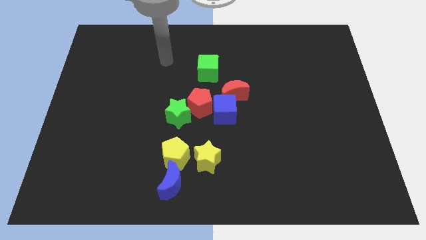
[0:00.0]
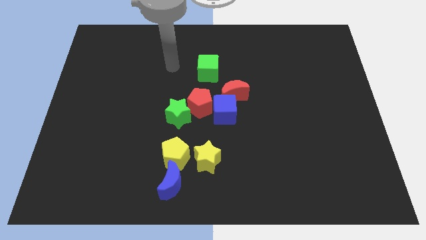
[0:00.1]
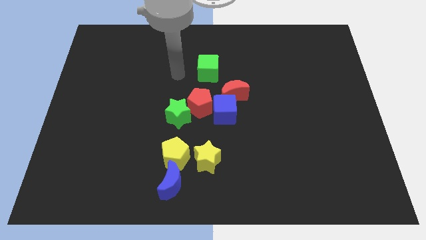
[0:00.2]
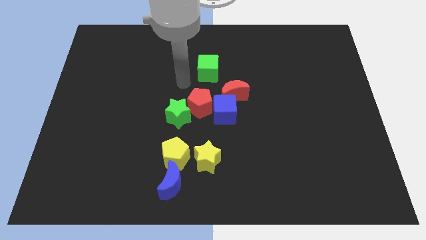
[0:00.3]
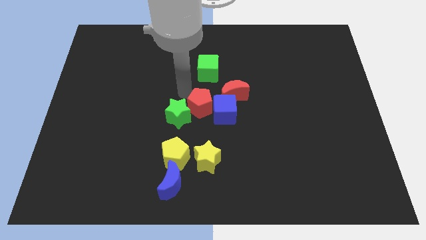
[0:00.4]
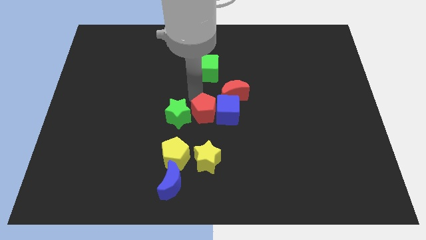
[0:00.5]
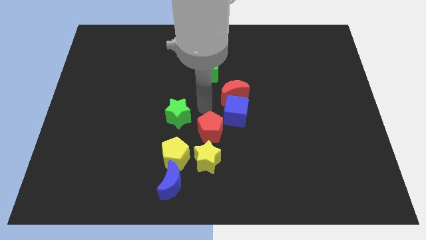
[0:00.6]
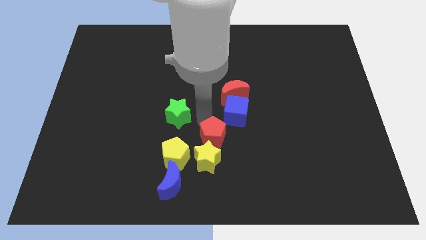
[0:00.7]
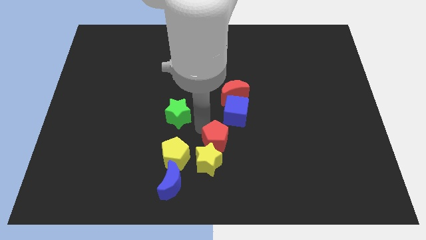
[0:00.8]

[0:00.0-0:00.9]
pull the green star apart from the red pentagon

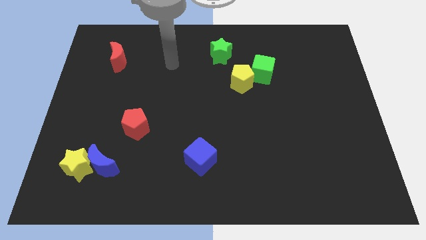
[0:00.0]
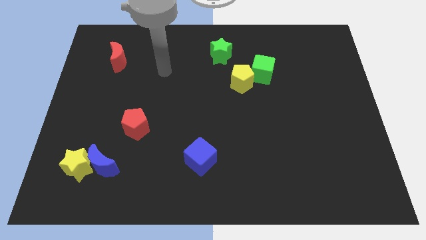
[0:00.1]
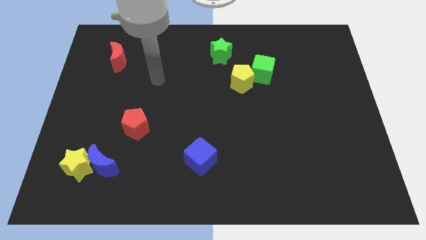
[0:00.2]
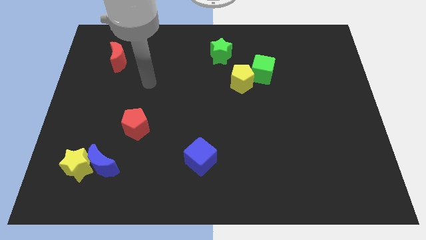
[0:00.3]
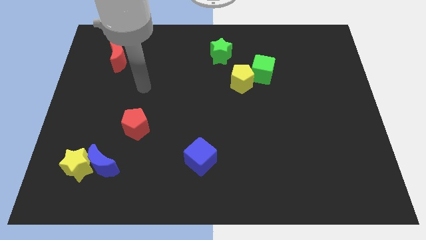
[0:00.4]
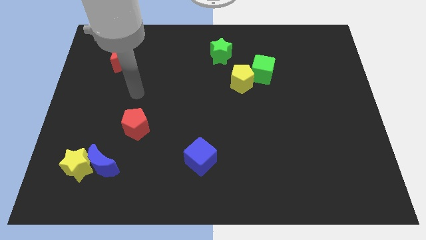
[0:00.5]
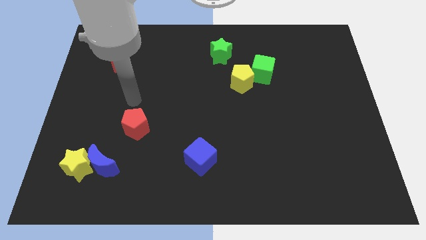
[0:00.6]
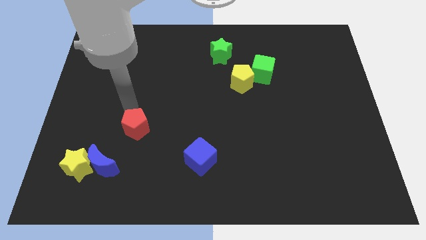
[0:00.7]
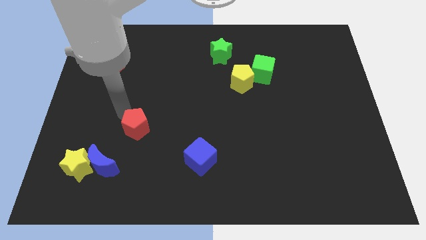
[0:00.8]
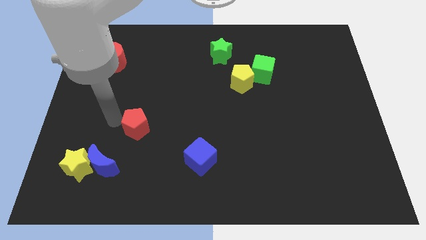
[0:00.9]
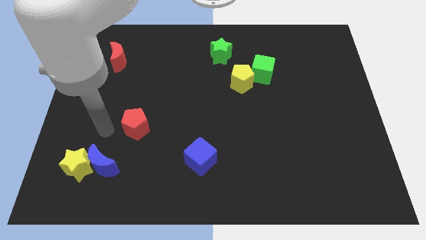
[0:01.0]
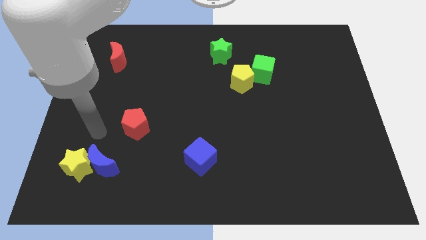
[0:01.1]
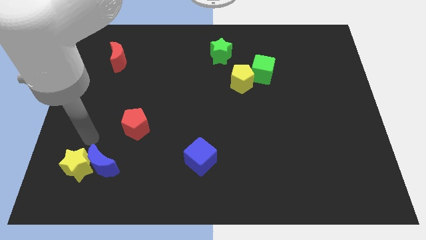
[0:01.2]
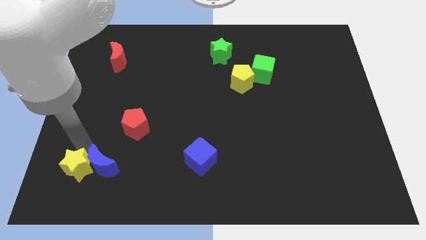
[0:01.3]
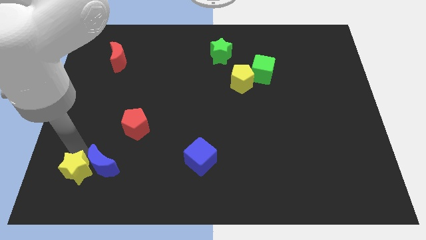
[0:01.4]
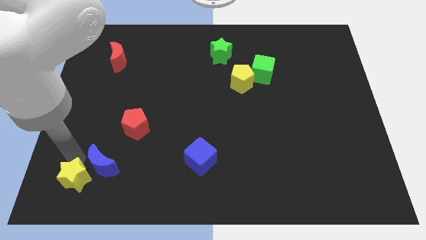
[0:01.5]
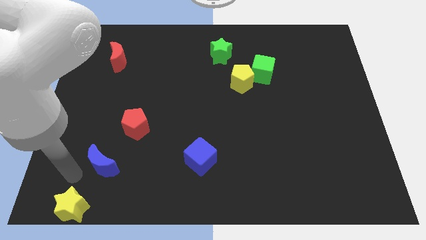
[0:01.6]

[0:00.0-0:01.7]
move the blue moon away from the yellow star

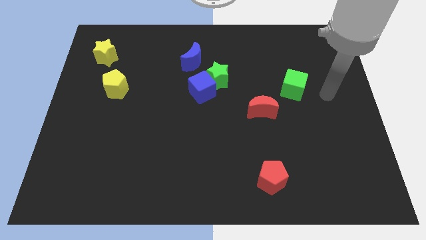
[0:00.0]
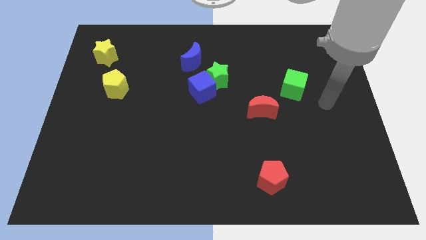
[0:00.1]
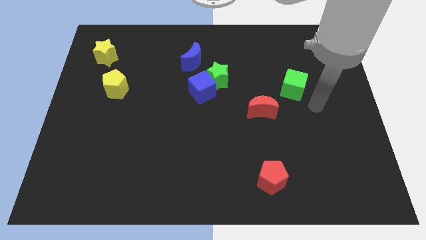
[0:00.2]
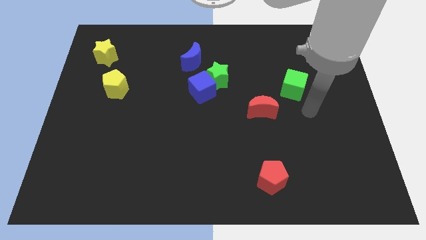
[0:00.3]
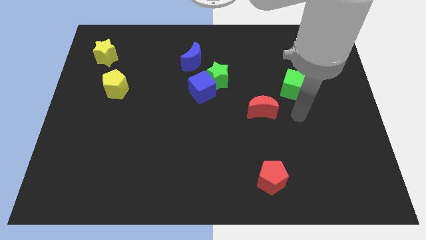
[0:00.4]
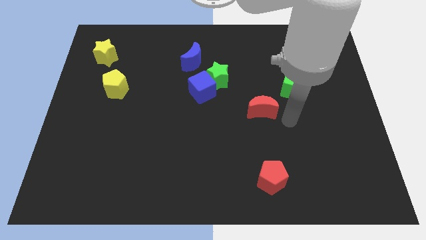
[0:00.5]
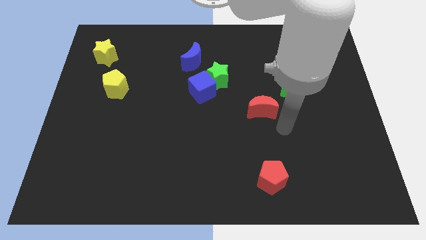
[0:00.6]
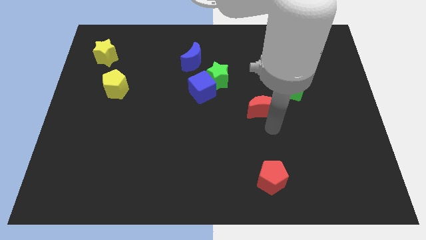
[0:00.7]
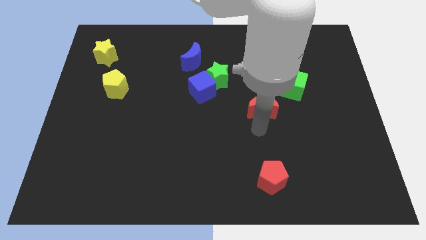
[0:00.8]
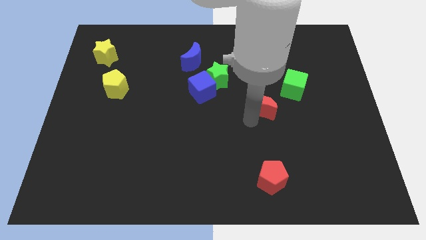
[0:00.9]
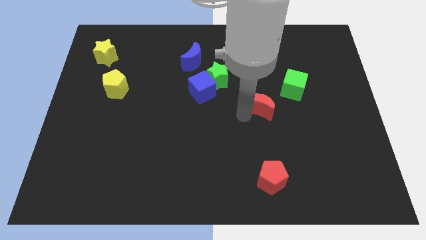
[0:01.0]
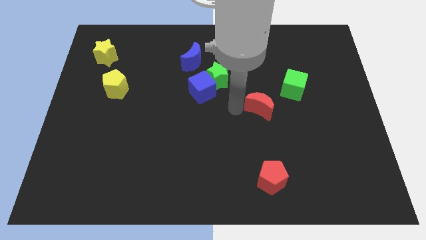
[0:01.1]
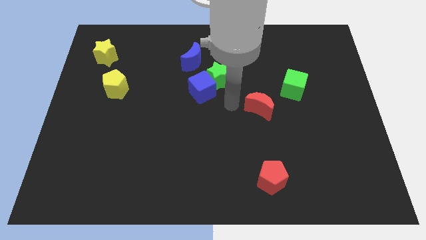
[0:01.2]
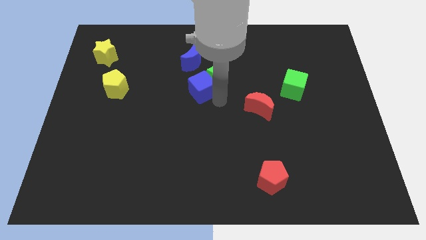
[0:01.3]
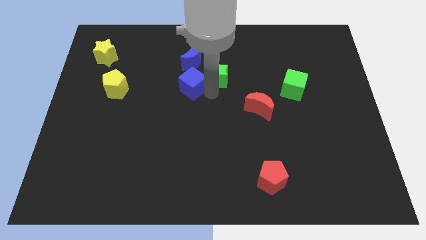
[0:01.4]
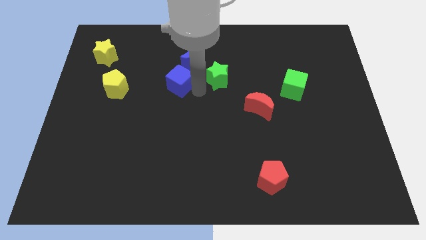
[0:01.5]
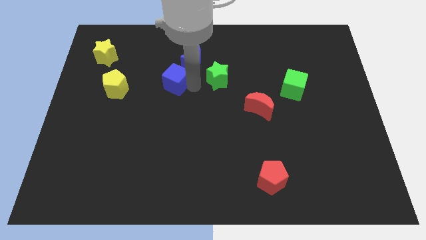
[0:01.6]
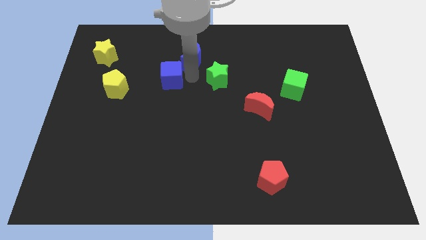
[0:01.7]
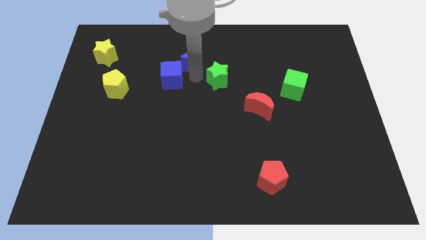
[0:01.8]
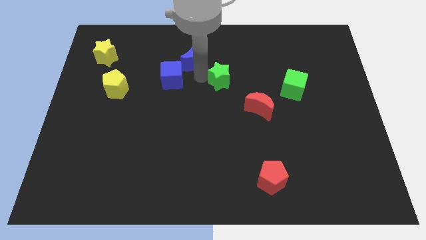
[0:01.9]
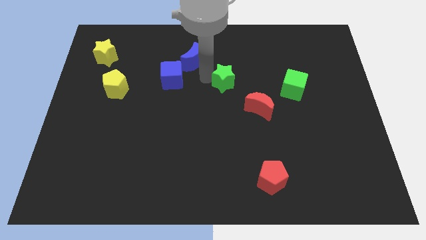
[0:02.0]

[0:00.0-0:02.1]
pull the green star apart from the blue cube and blue moon

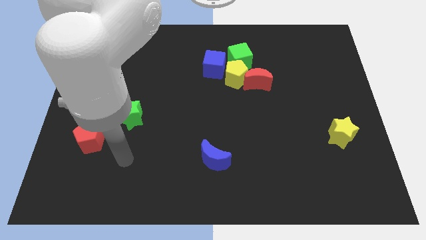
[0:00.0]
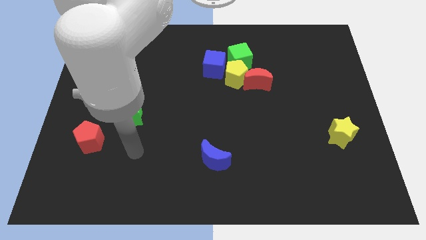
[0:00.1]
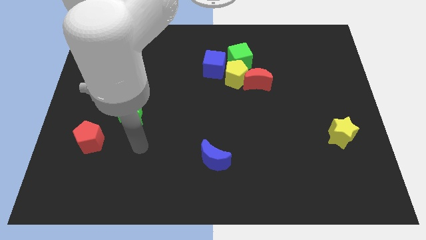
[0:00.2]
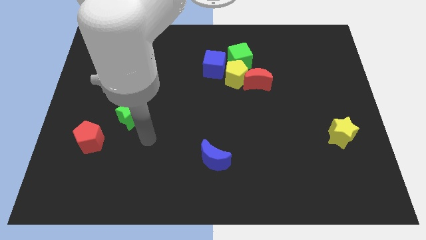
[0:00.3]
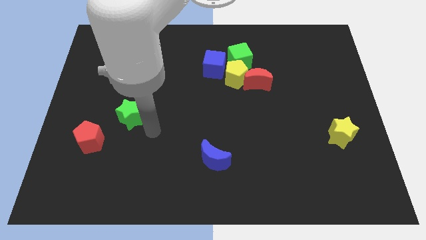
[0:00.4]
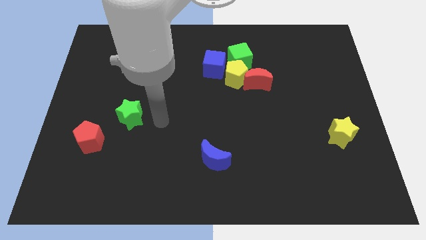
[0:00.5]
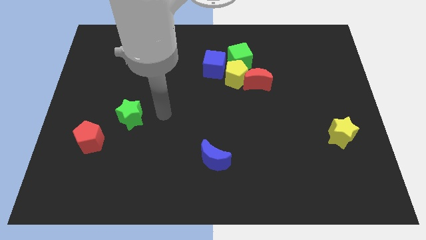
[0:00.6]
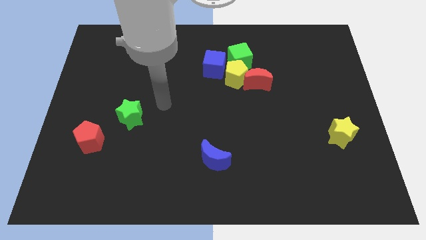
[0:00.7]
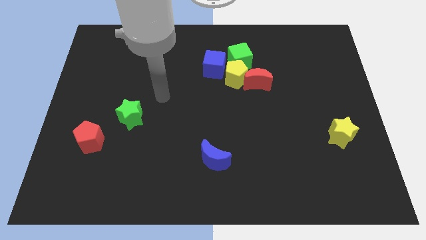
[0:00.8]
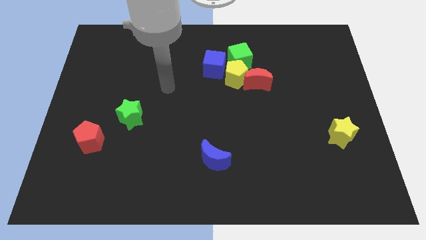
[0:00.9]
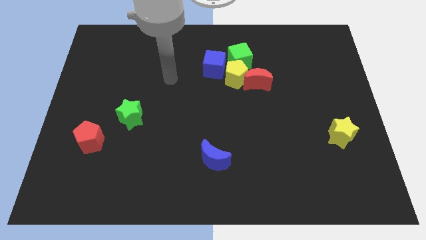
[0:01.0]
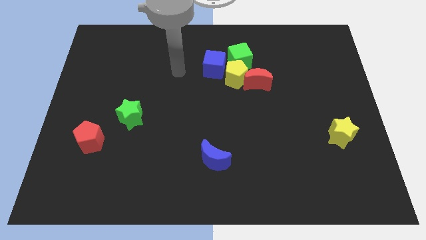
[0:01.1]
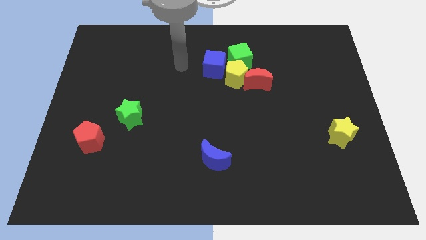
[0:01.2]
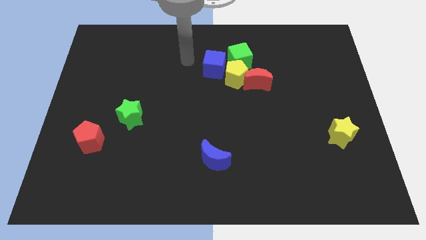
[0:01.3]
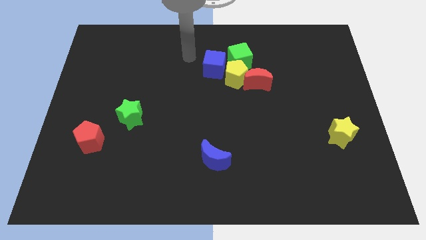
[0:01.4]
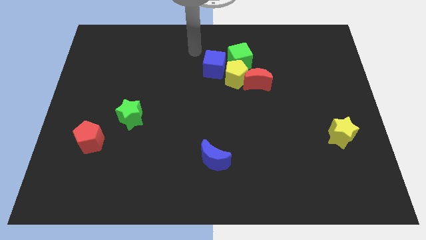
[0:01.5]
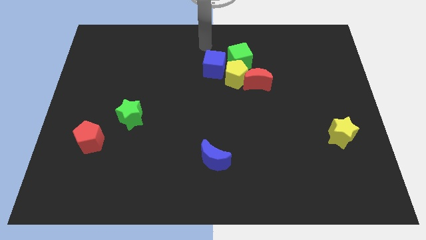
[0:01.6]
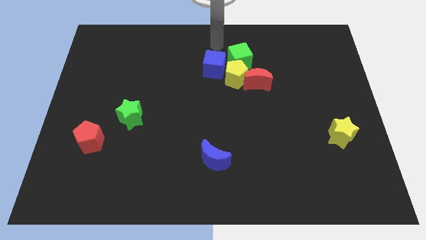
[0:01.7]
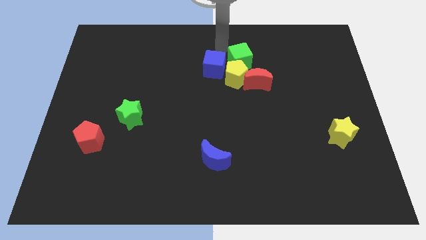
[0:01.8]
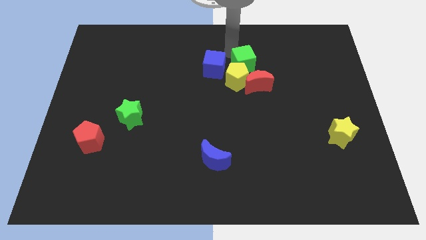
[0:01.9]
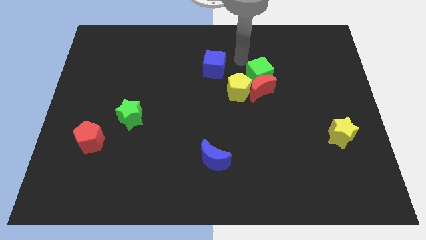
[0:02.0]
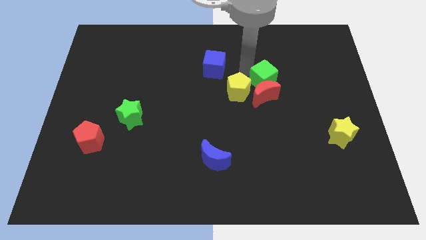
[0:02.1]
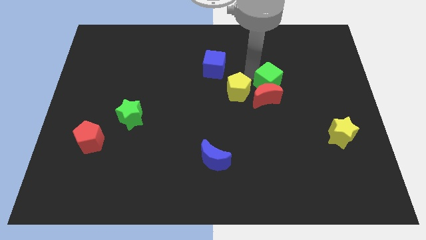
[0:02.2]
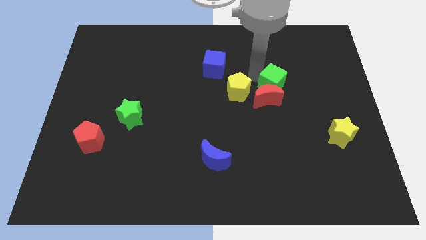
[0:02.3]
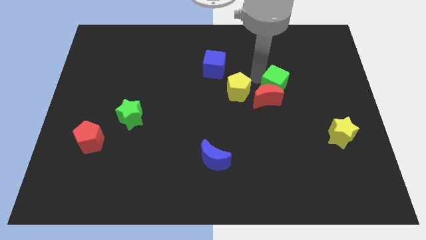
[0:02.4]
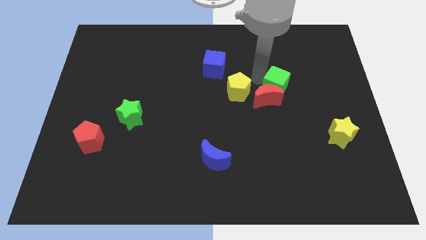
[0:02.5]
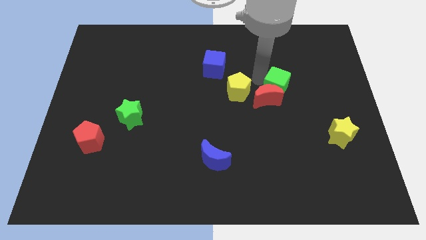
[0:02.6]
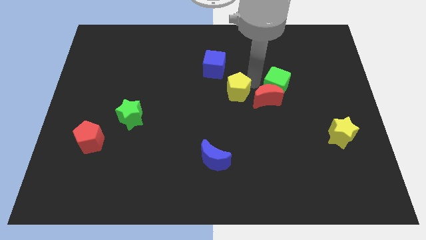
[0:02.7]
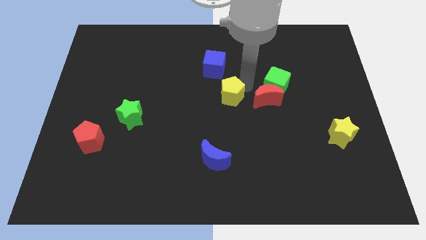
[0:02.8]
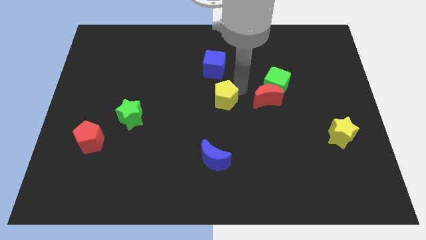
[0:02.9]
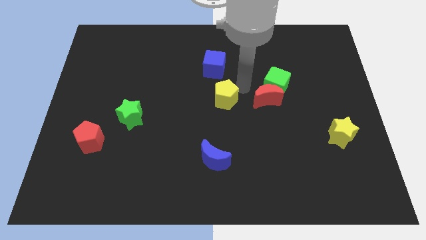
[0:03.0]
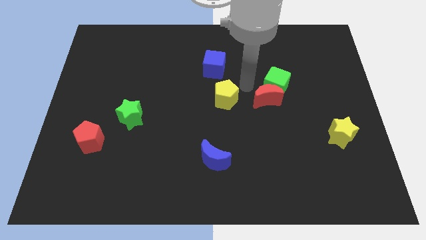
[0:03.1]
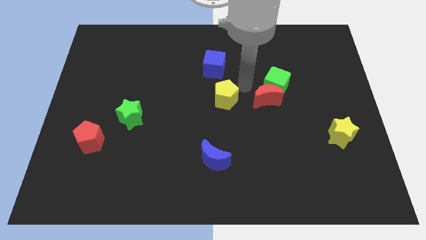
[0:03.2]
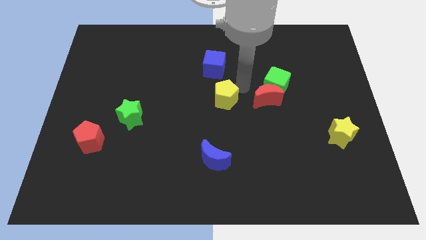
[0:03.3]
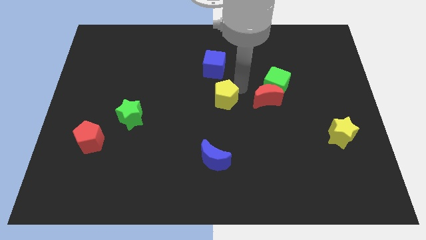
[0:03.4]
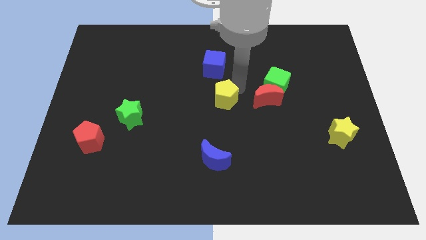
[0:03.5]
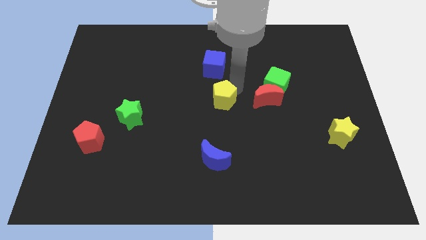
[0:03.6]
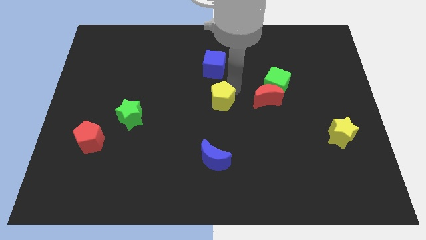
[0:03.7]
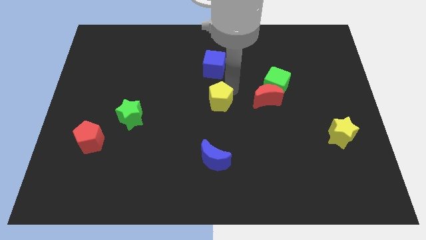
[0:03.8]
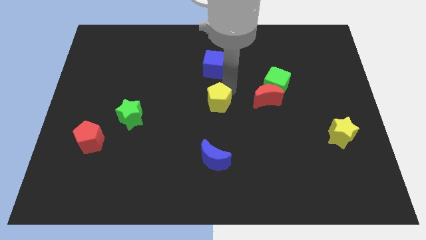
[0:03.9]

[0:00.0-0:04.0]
move the yellow pentagon away from the group of blocks

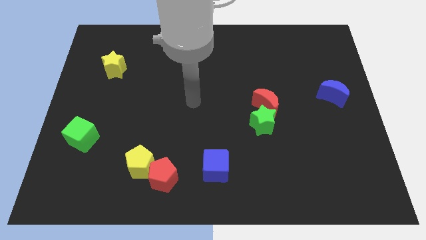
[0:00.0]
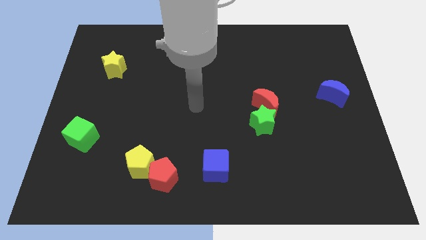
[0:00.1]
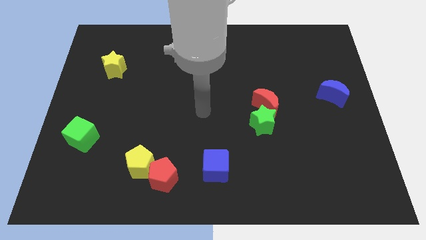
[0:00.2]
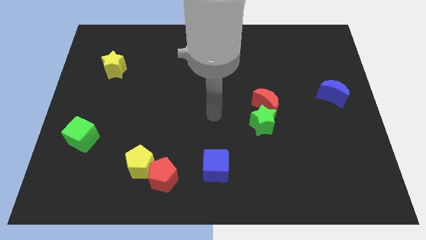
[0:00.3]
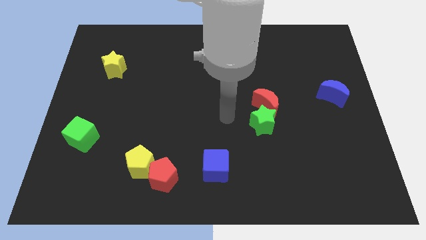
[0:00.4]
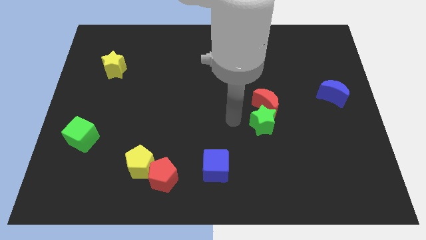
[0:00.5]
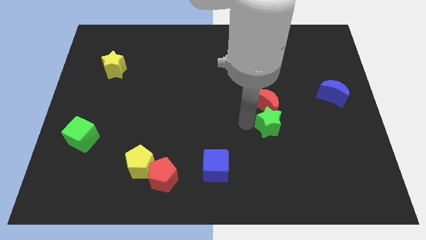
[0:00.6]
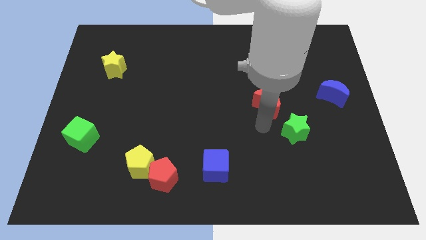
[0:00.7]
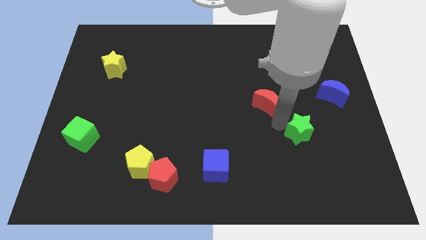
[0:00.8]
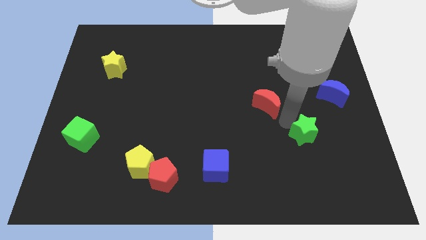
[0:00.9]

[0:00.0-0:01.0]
separate the red moon from the green star
